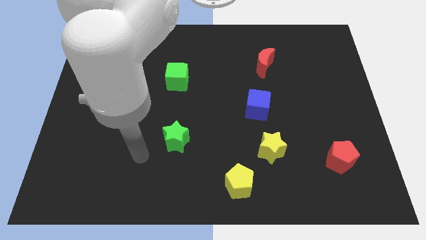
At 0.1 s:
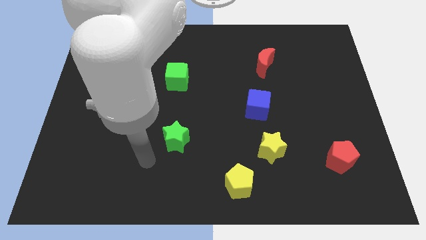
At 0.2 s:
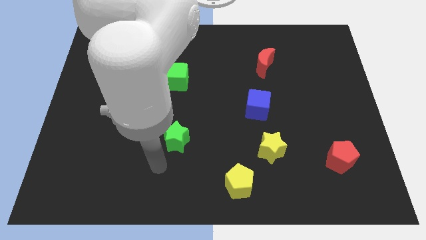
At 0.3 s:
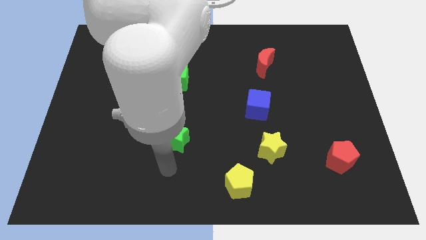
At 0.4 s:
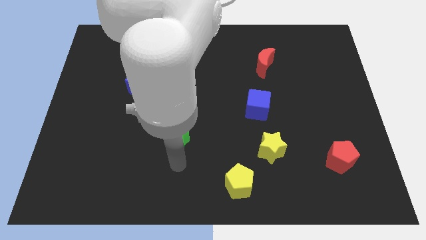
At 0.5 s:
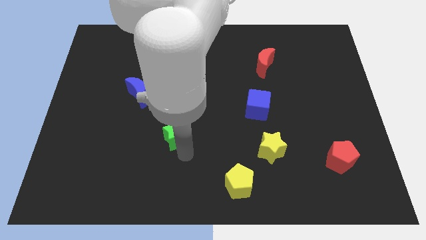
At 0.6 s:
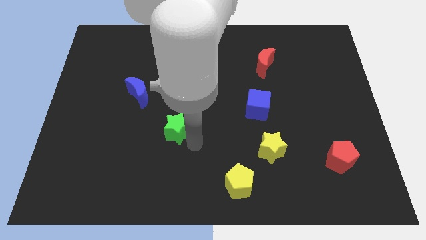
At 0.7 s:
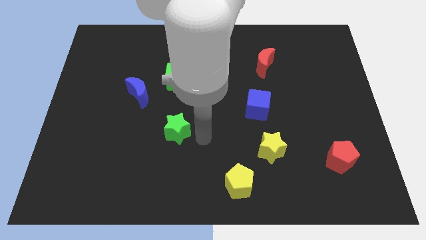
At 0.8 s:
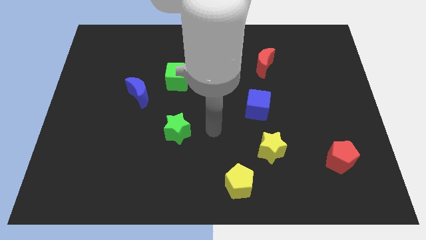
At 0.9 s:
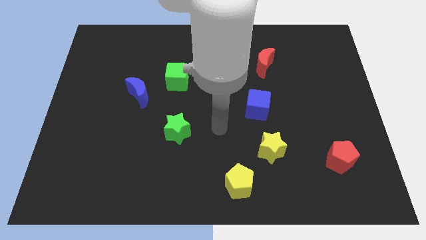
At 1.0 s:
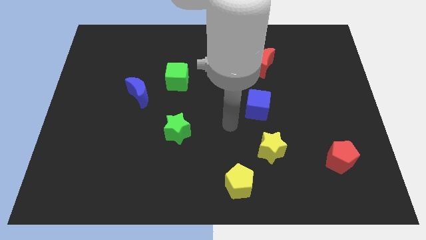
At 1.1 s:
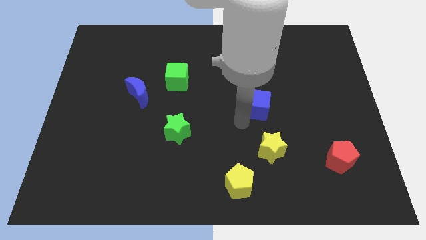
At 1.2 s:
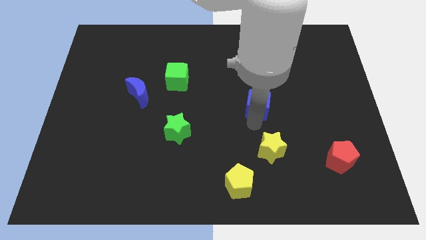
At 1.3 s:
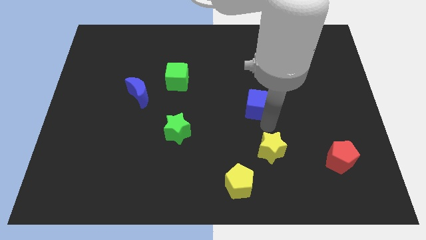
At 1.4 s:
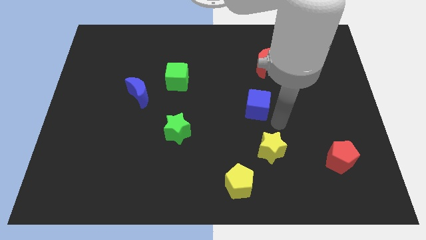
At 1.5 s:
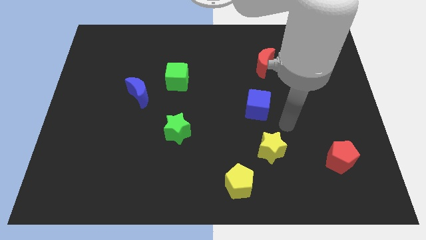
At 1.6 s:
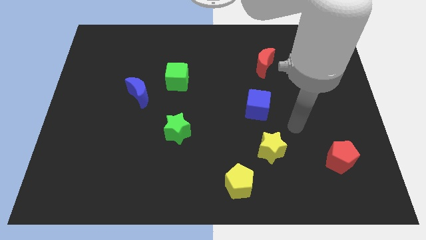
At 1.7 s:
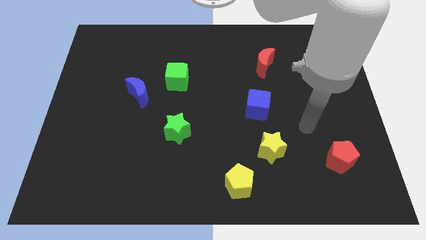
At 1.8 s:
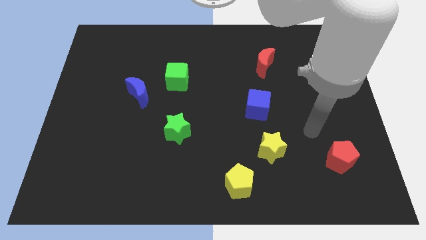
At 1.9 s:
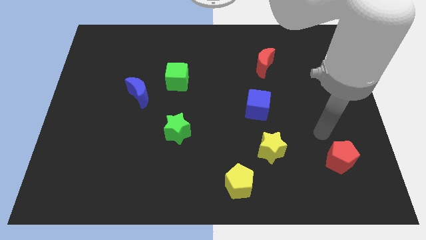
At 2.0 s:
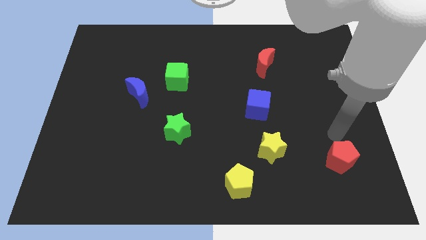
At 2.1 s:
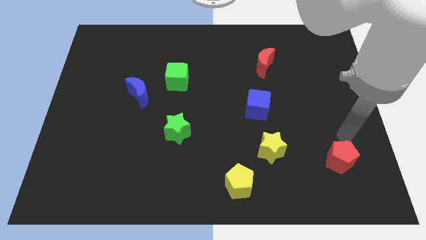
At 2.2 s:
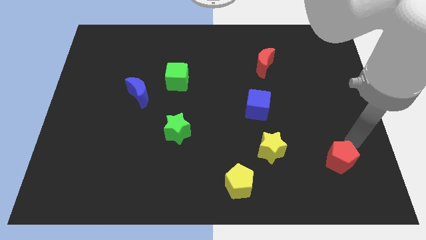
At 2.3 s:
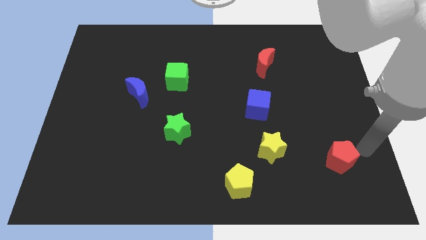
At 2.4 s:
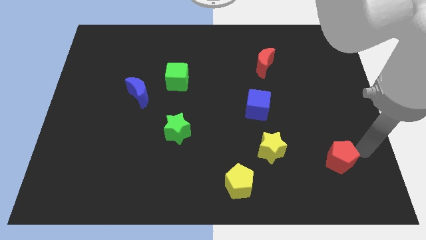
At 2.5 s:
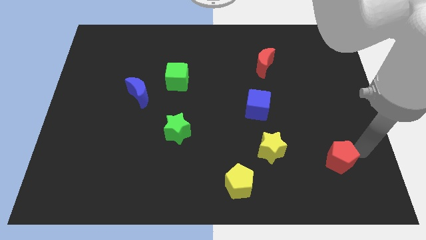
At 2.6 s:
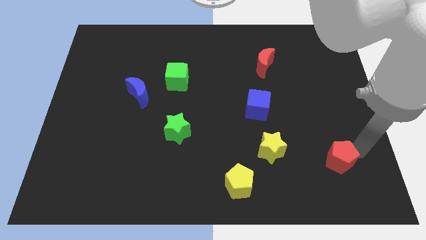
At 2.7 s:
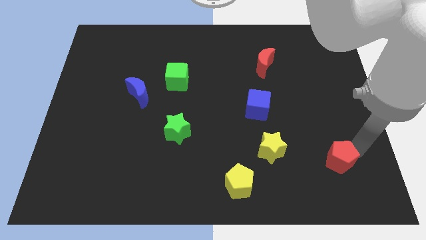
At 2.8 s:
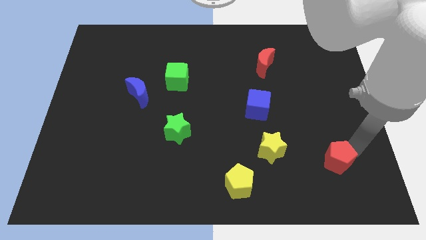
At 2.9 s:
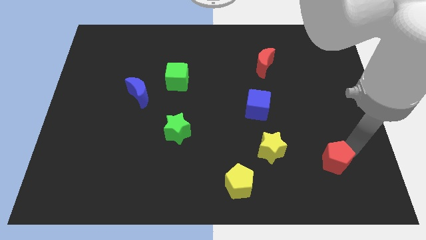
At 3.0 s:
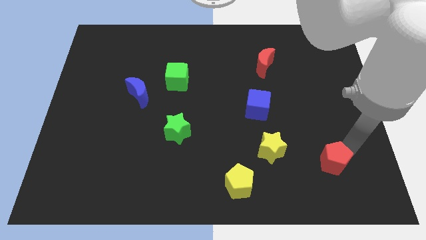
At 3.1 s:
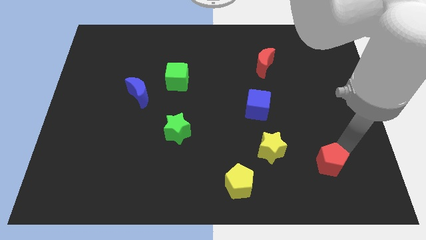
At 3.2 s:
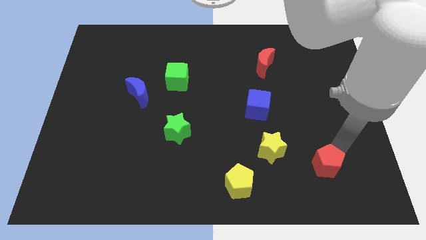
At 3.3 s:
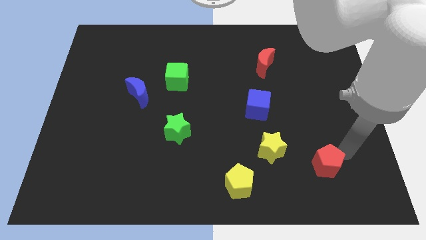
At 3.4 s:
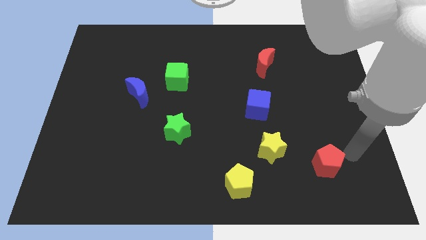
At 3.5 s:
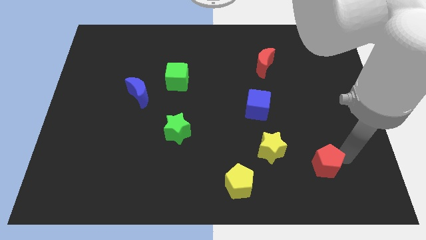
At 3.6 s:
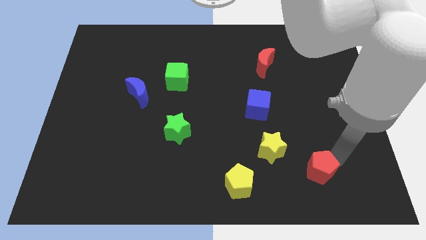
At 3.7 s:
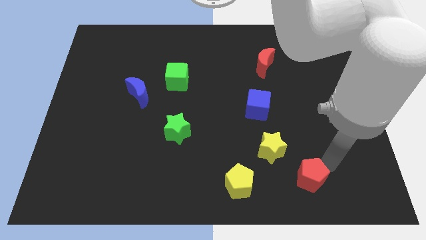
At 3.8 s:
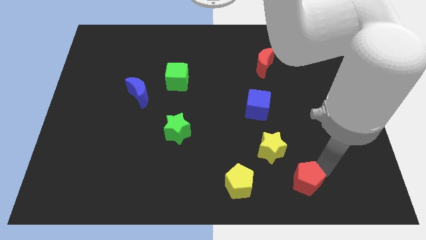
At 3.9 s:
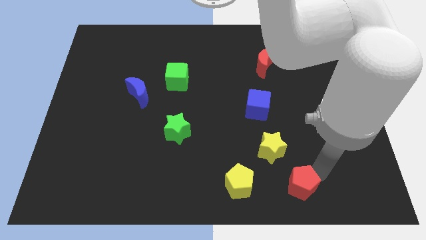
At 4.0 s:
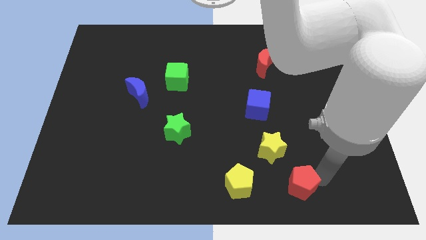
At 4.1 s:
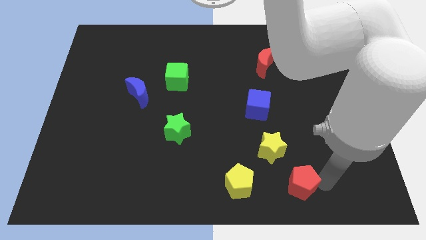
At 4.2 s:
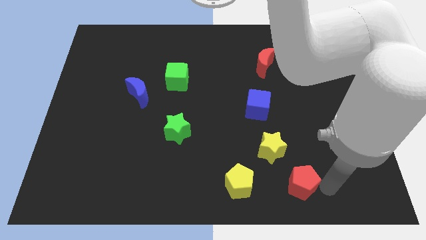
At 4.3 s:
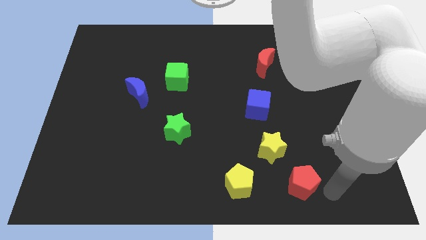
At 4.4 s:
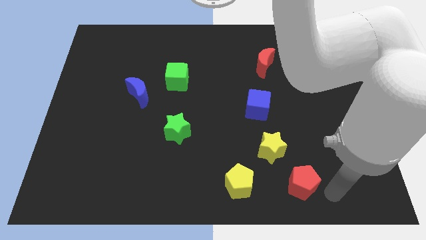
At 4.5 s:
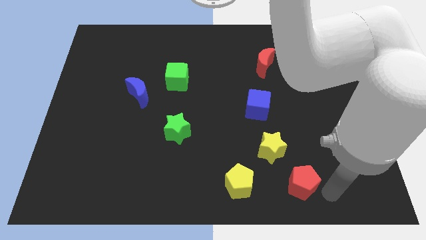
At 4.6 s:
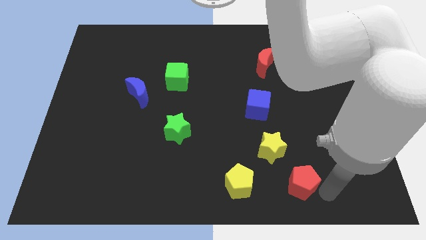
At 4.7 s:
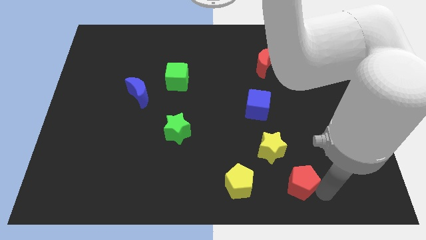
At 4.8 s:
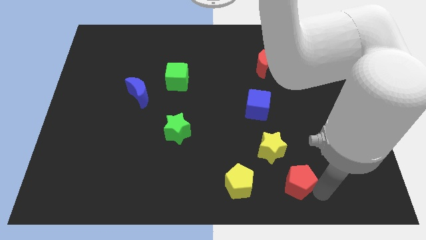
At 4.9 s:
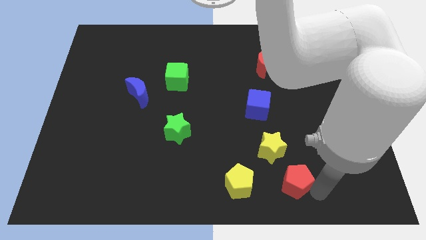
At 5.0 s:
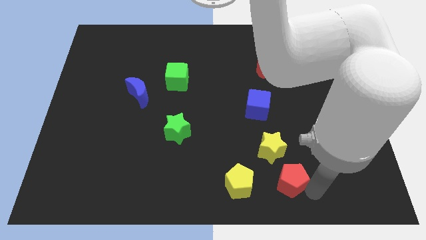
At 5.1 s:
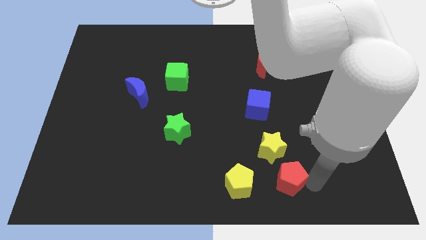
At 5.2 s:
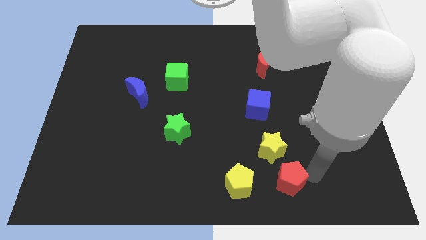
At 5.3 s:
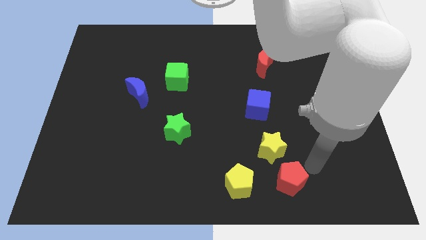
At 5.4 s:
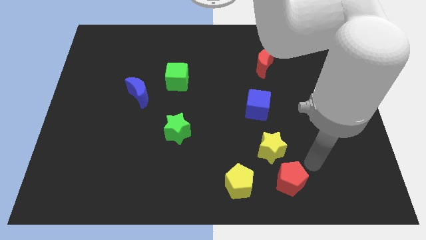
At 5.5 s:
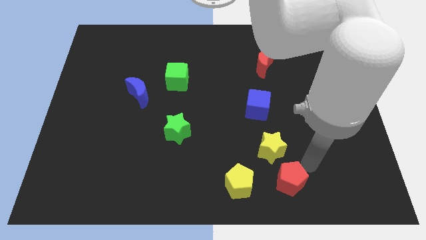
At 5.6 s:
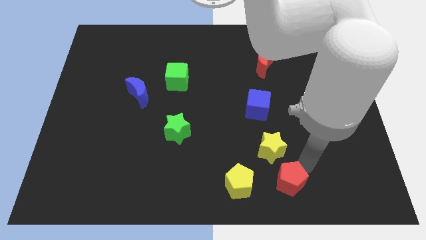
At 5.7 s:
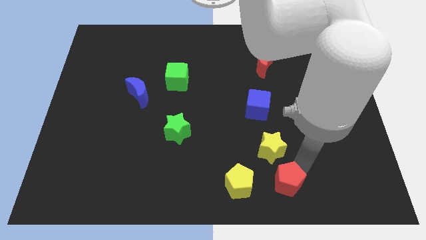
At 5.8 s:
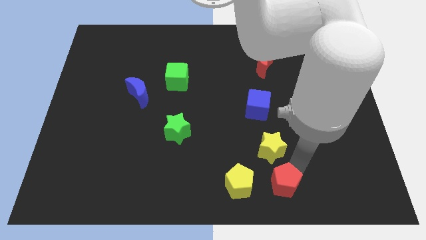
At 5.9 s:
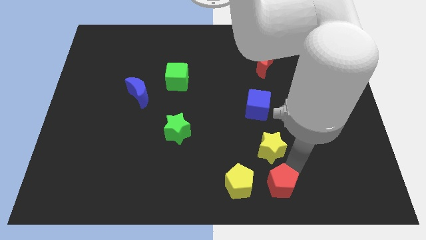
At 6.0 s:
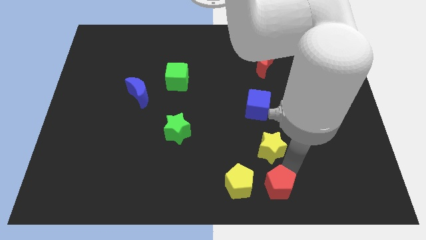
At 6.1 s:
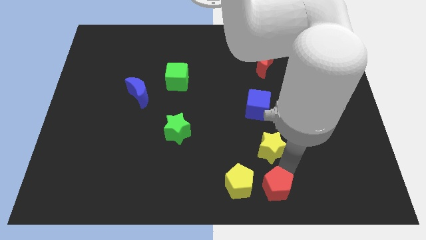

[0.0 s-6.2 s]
slide the red pentagon to the bottom side
